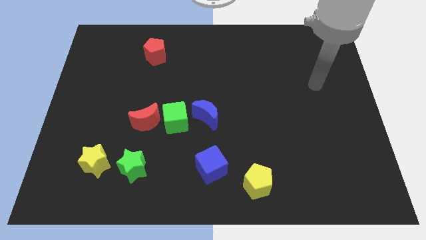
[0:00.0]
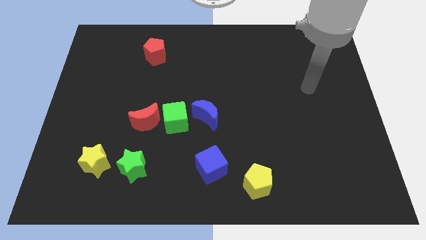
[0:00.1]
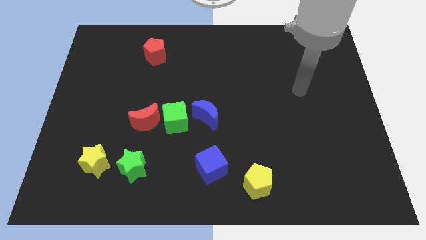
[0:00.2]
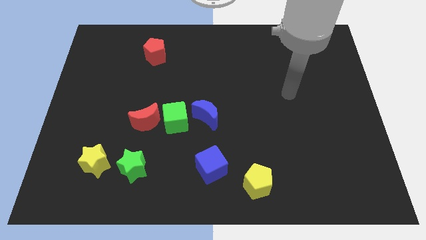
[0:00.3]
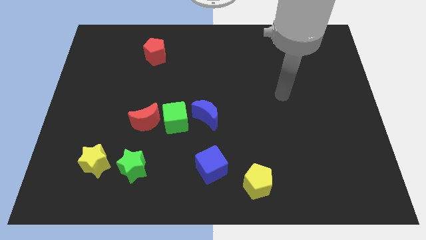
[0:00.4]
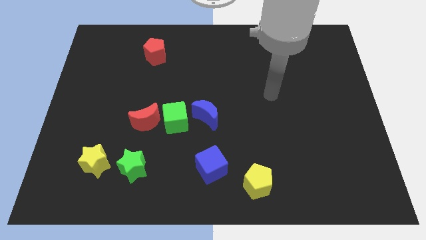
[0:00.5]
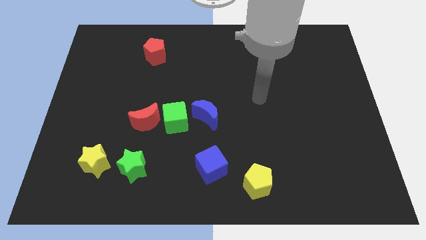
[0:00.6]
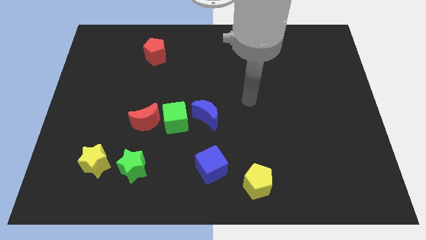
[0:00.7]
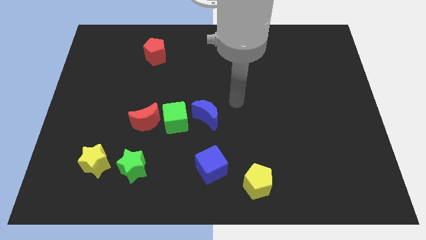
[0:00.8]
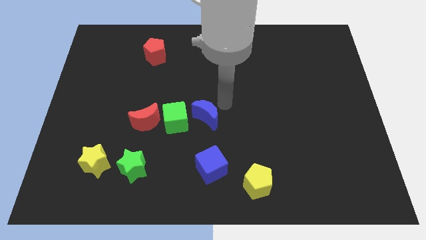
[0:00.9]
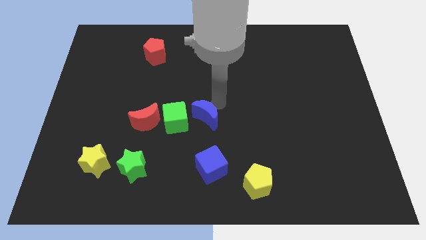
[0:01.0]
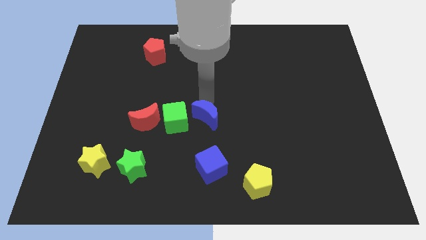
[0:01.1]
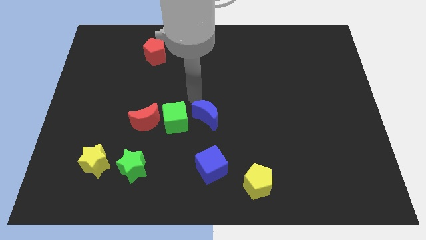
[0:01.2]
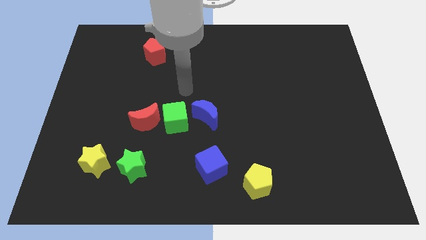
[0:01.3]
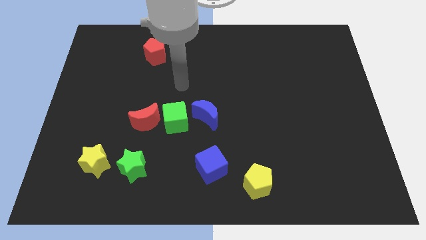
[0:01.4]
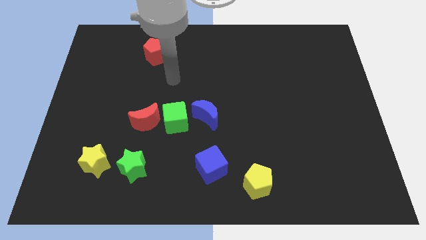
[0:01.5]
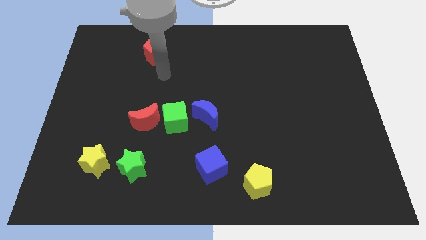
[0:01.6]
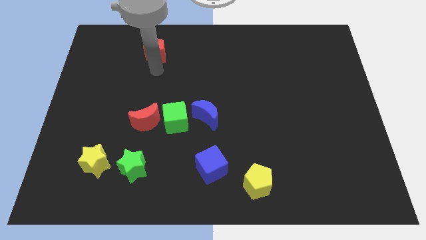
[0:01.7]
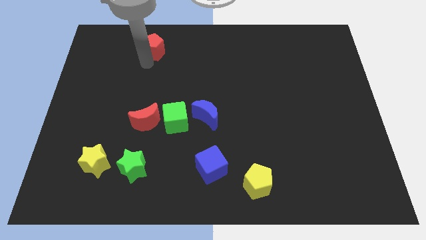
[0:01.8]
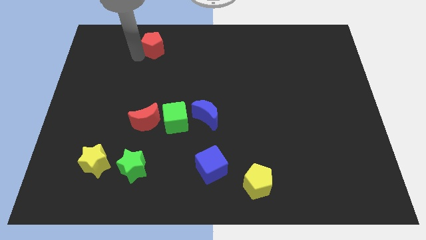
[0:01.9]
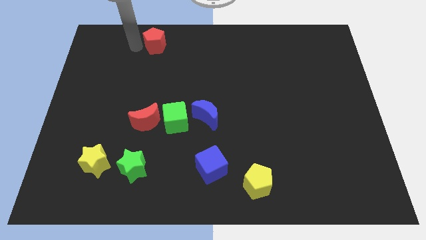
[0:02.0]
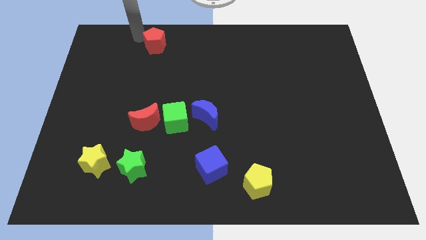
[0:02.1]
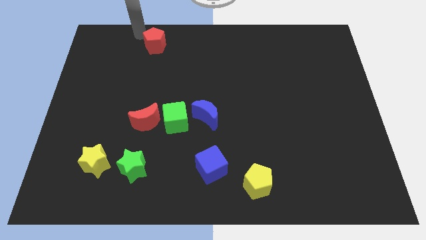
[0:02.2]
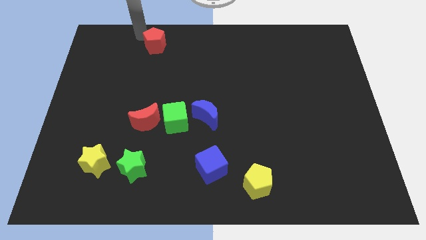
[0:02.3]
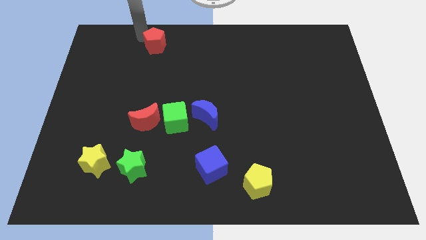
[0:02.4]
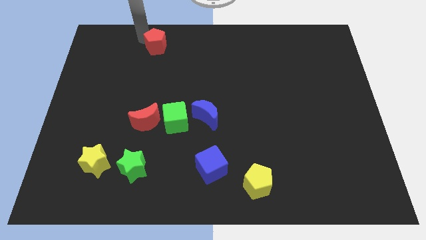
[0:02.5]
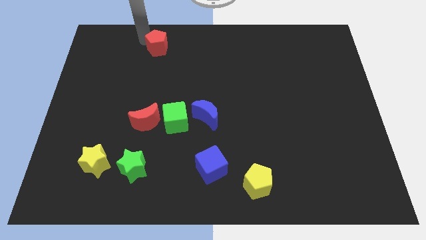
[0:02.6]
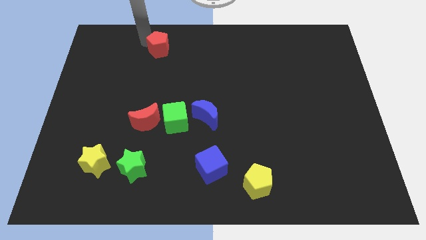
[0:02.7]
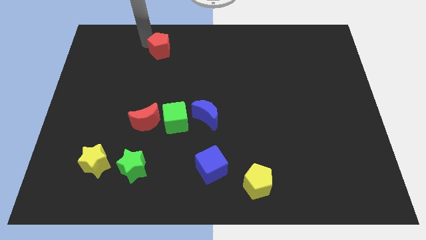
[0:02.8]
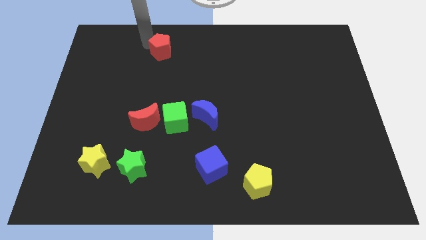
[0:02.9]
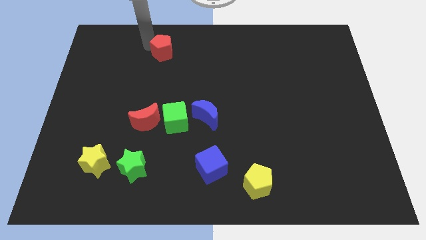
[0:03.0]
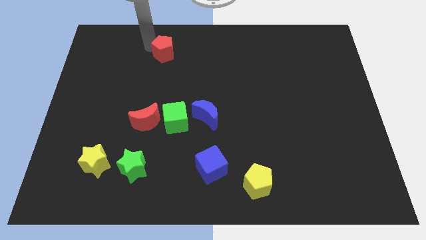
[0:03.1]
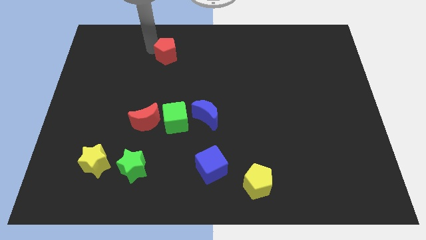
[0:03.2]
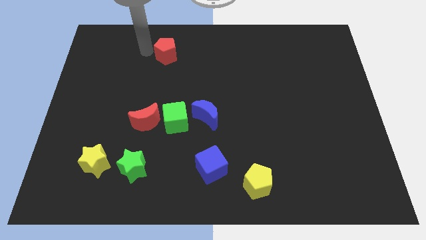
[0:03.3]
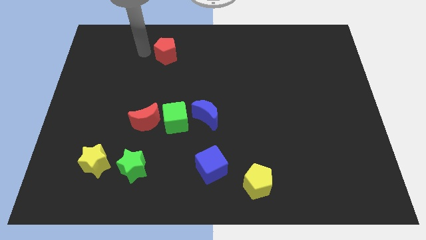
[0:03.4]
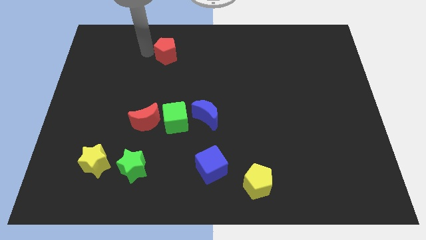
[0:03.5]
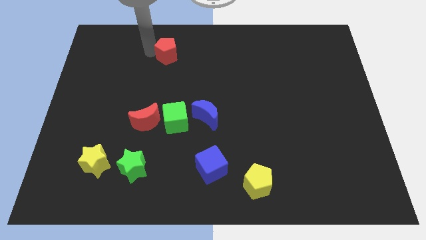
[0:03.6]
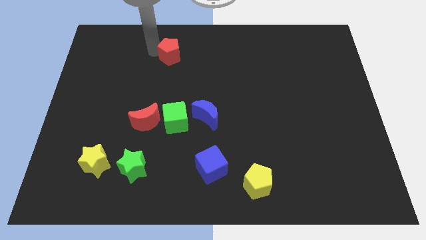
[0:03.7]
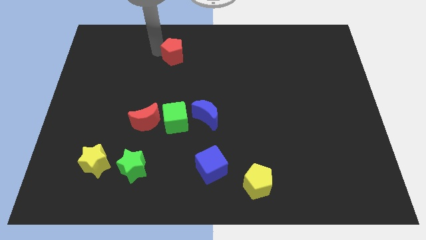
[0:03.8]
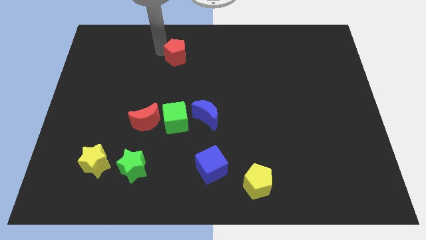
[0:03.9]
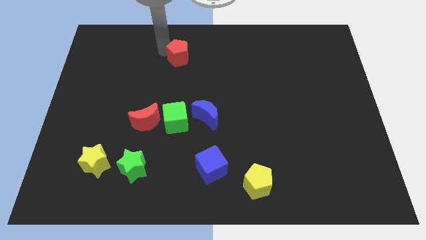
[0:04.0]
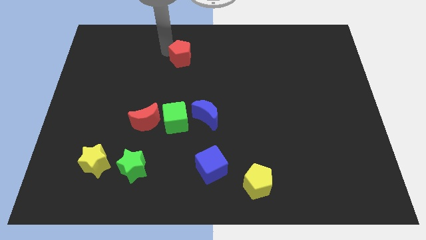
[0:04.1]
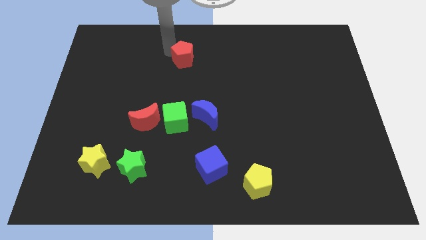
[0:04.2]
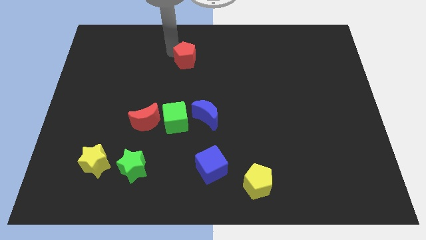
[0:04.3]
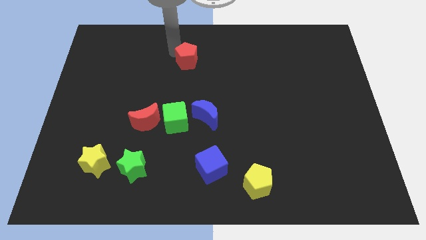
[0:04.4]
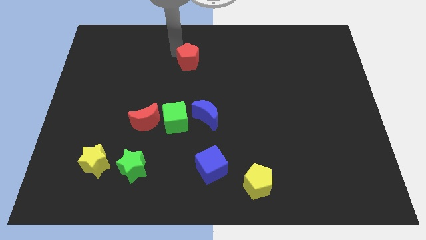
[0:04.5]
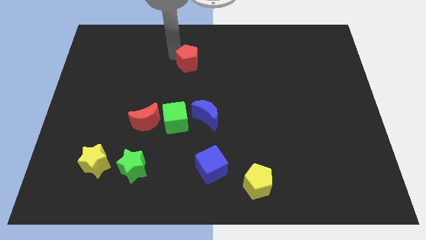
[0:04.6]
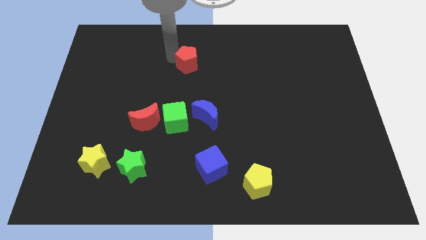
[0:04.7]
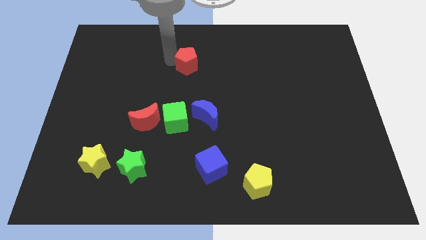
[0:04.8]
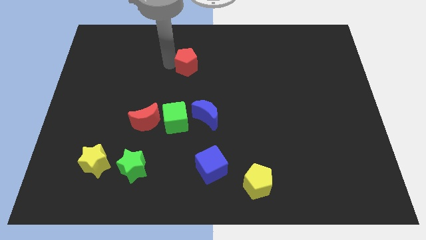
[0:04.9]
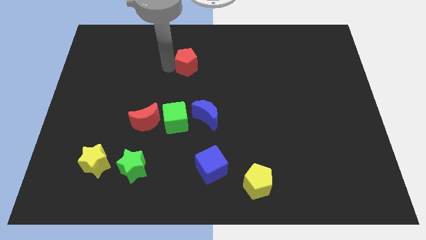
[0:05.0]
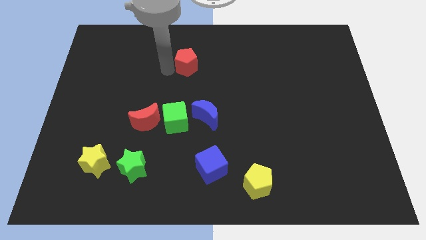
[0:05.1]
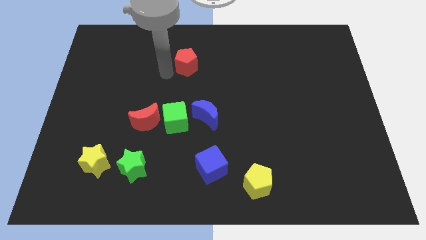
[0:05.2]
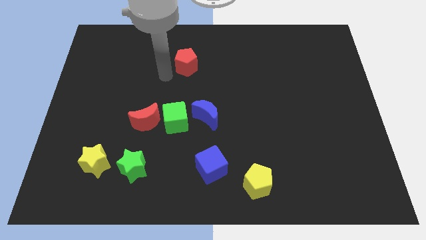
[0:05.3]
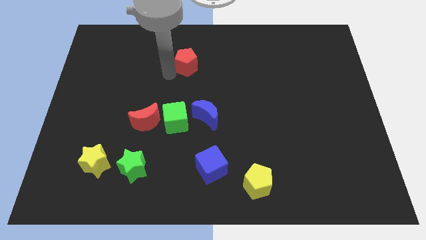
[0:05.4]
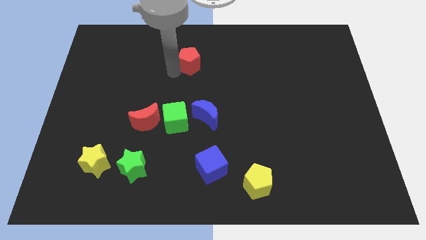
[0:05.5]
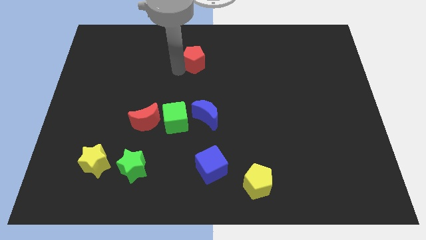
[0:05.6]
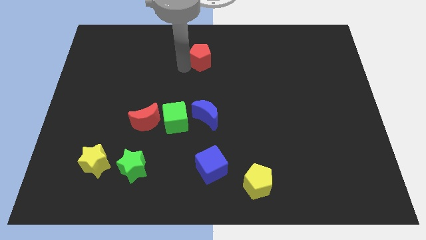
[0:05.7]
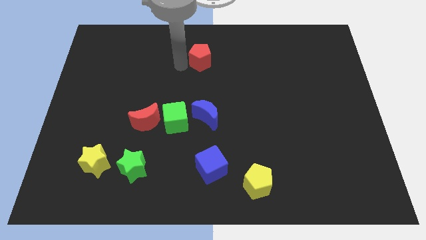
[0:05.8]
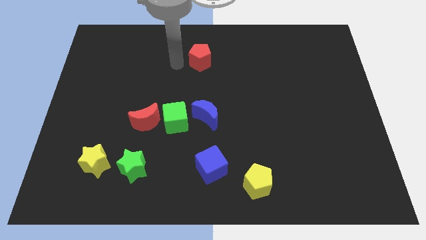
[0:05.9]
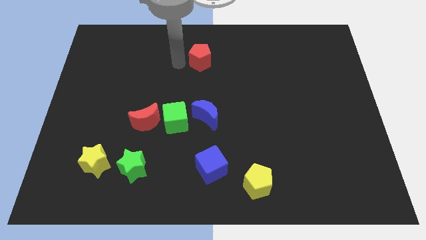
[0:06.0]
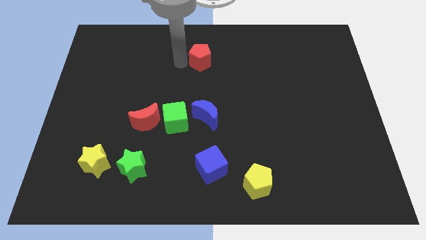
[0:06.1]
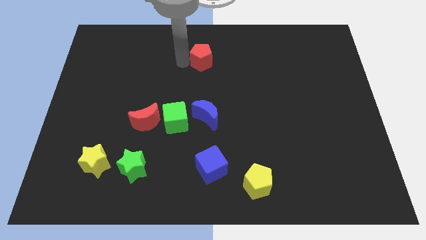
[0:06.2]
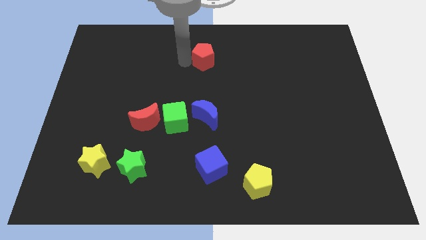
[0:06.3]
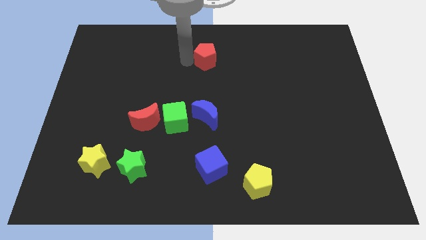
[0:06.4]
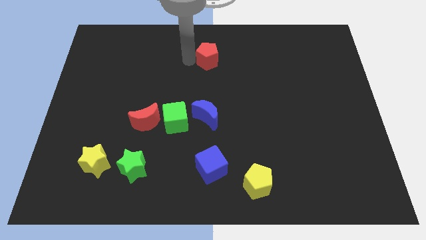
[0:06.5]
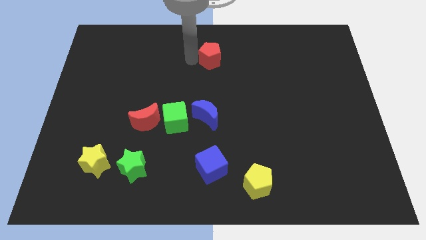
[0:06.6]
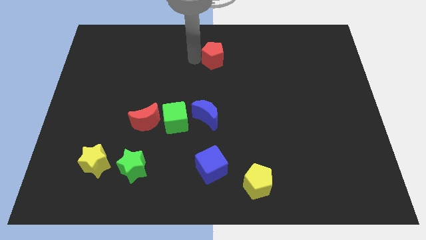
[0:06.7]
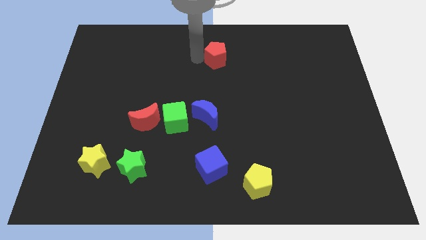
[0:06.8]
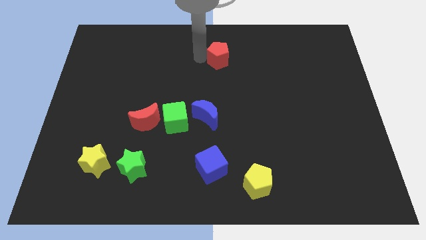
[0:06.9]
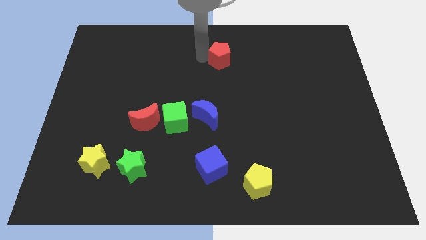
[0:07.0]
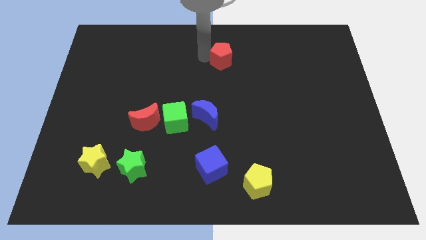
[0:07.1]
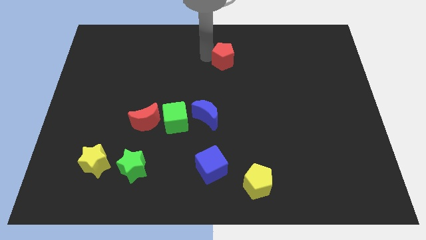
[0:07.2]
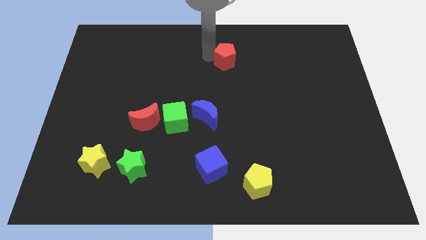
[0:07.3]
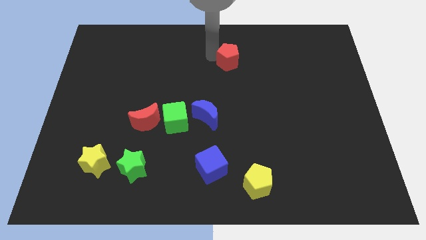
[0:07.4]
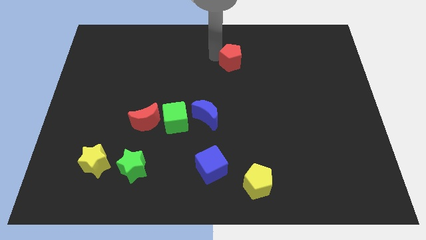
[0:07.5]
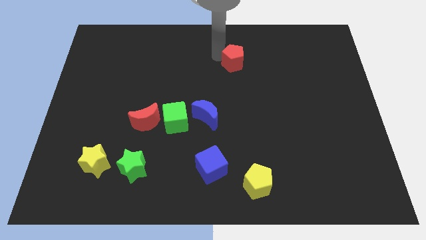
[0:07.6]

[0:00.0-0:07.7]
move the red pentagon to the right

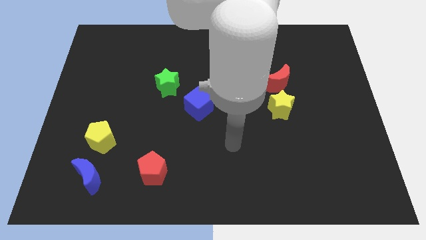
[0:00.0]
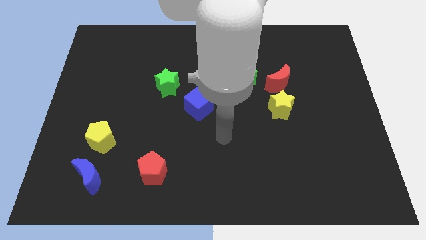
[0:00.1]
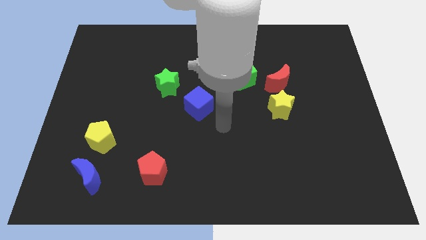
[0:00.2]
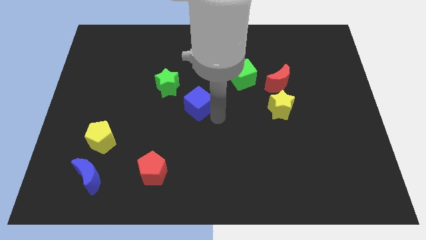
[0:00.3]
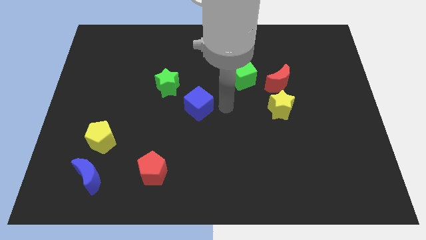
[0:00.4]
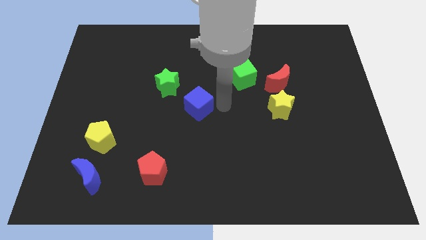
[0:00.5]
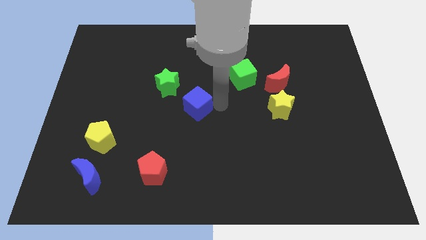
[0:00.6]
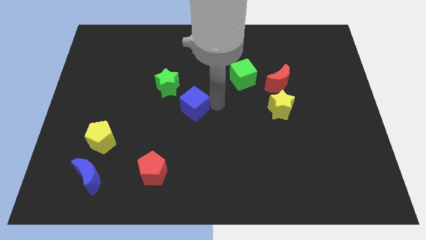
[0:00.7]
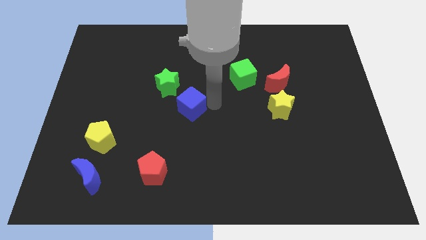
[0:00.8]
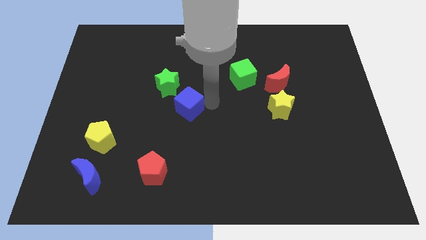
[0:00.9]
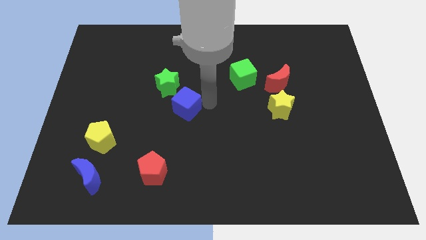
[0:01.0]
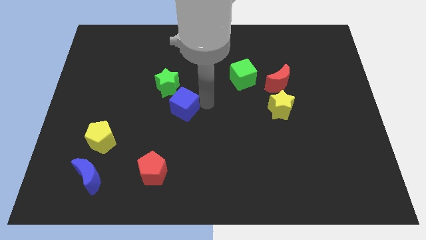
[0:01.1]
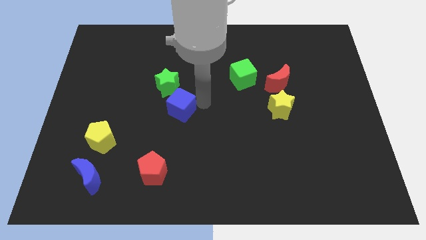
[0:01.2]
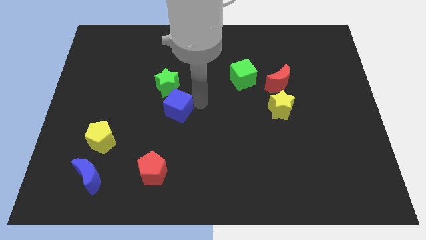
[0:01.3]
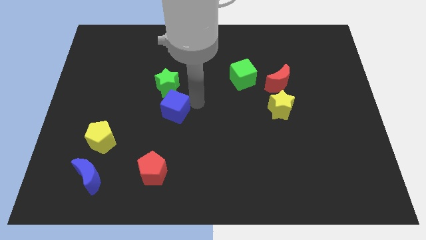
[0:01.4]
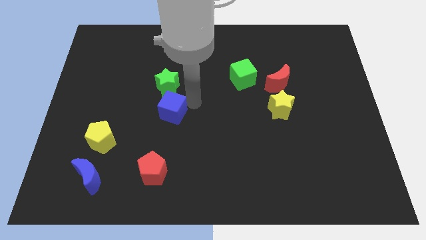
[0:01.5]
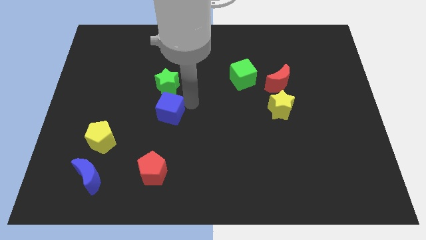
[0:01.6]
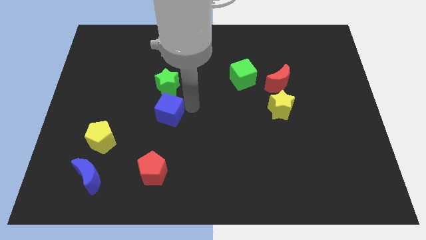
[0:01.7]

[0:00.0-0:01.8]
slightly slide the blue cube to the left
